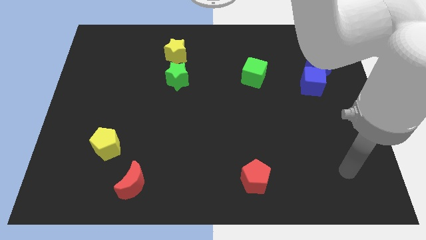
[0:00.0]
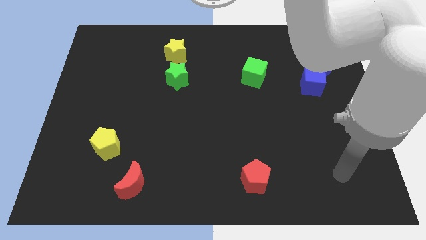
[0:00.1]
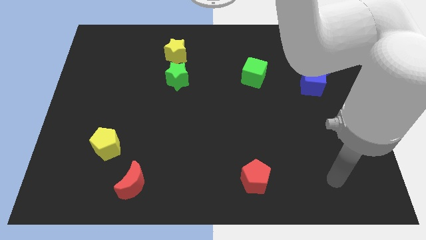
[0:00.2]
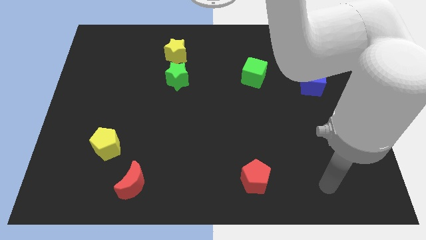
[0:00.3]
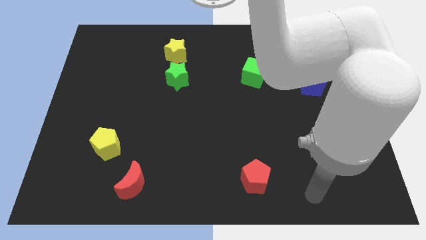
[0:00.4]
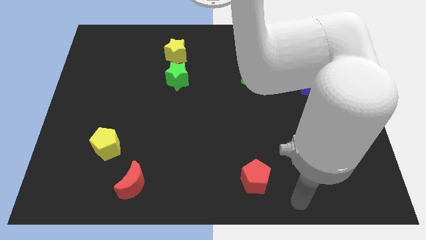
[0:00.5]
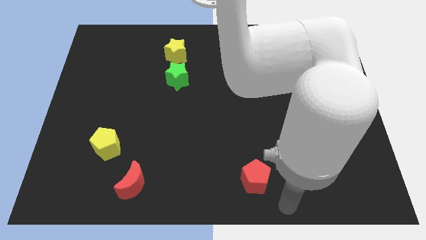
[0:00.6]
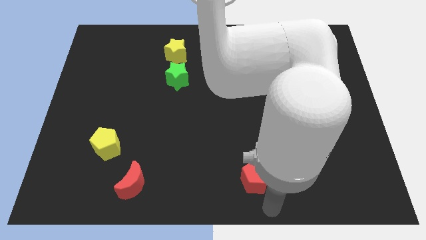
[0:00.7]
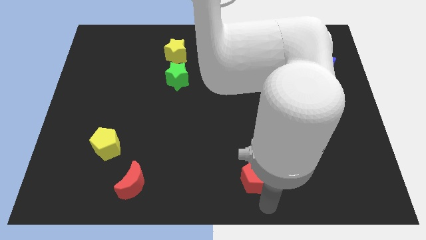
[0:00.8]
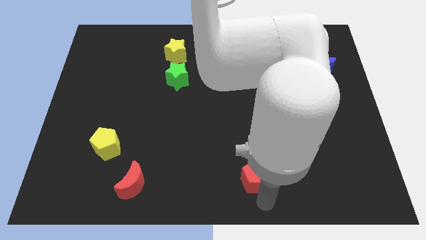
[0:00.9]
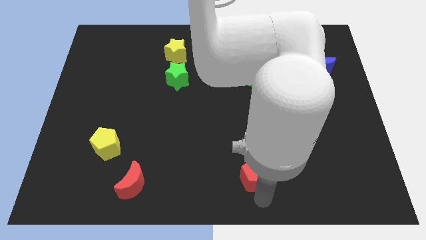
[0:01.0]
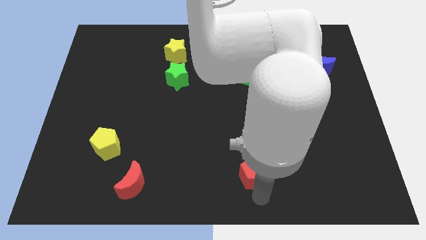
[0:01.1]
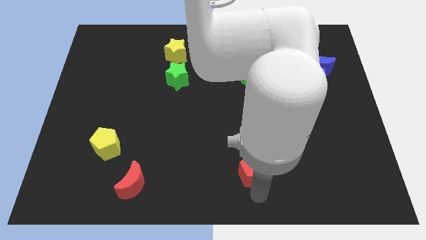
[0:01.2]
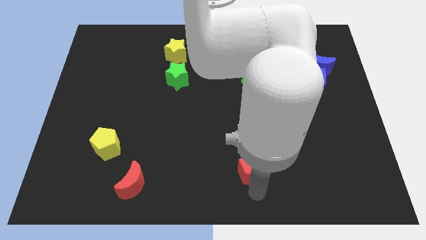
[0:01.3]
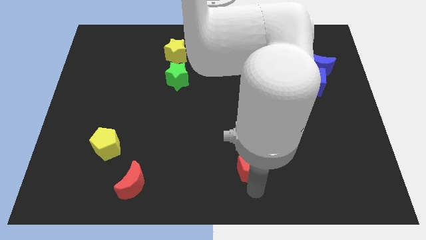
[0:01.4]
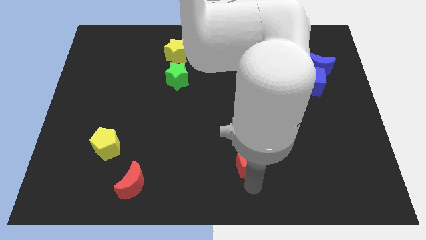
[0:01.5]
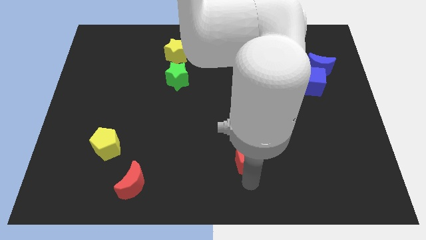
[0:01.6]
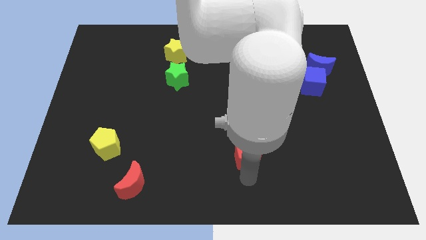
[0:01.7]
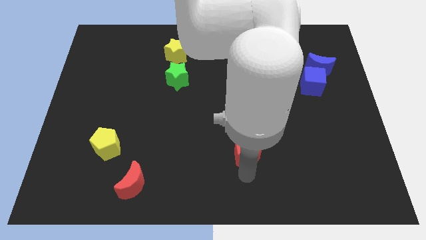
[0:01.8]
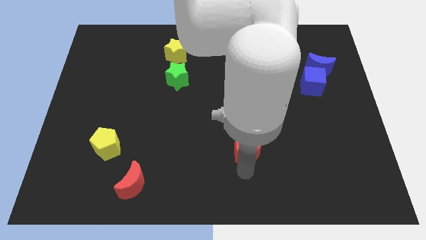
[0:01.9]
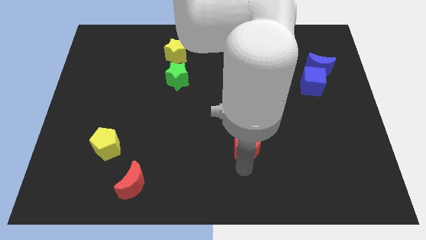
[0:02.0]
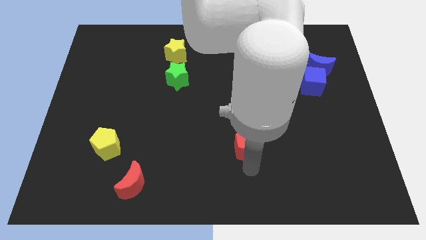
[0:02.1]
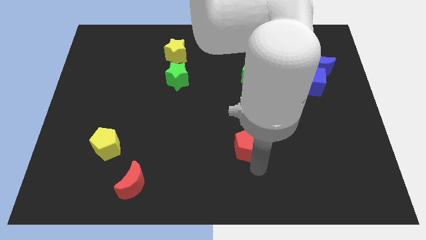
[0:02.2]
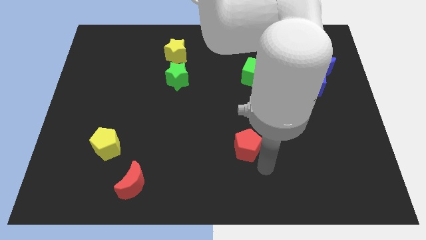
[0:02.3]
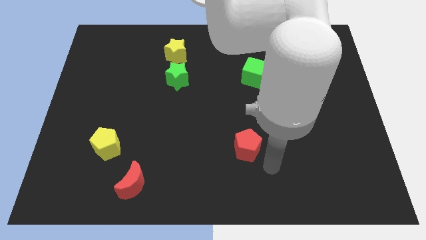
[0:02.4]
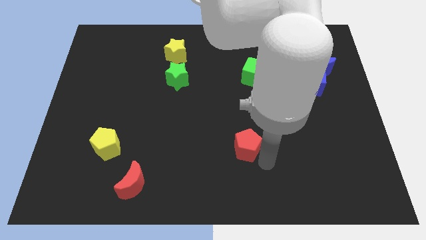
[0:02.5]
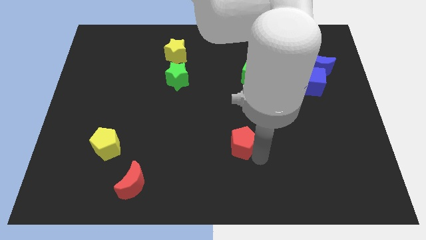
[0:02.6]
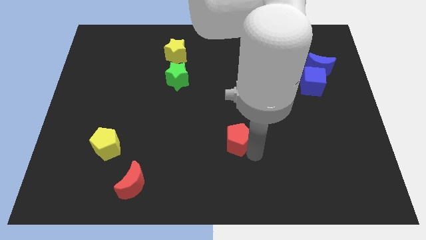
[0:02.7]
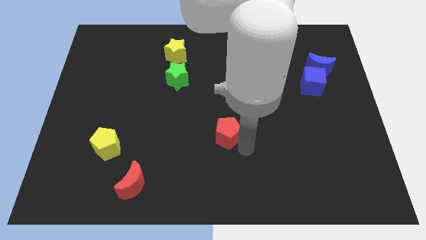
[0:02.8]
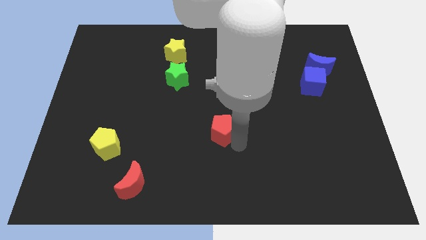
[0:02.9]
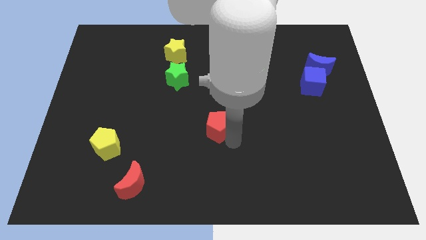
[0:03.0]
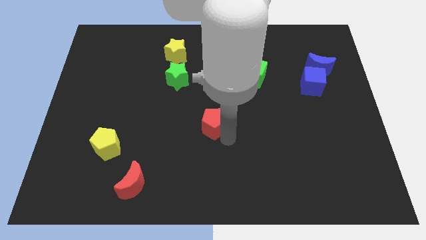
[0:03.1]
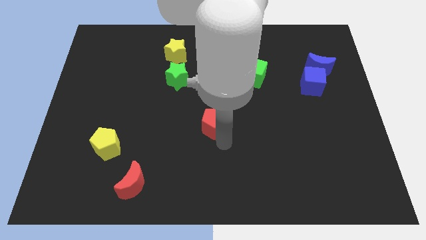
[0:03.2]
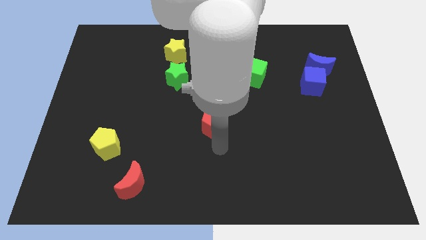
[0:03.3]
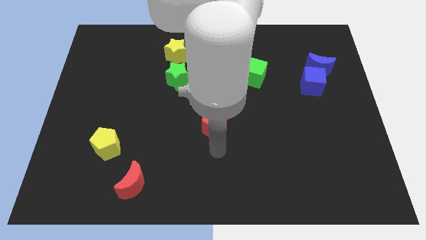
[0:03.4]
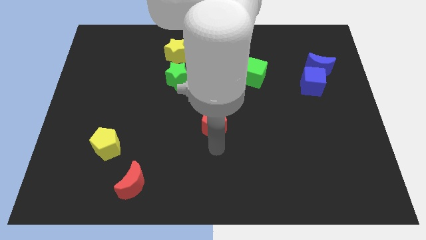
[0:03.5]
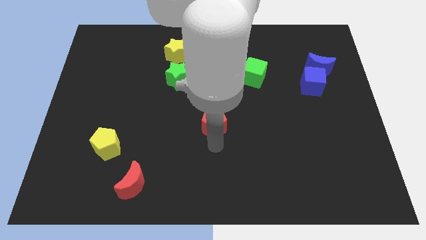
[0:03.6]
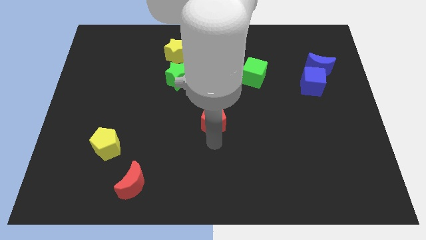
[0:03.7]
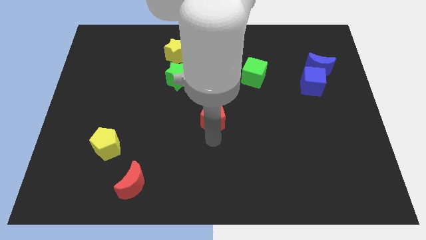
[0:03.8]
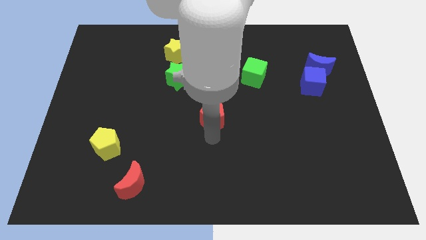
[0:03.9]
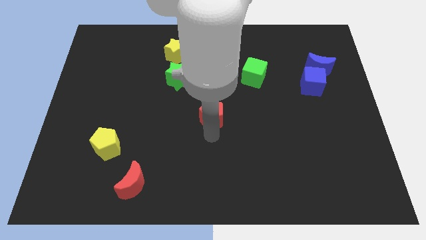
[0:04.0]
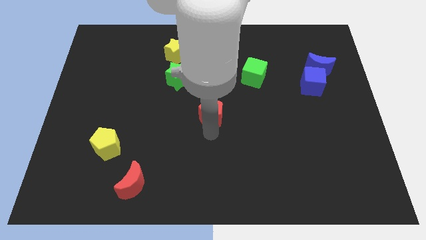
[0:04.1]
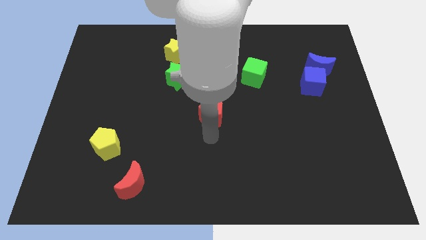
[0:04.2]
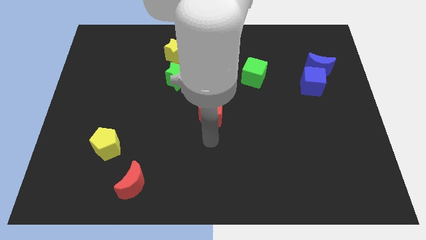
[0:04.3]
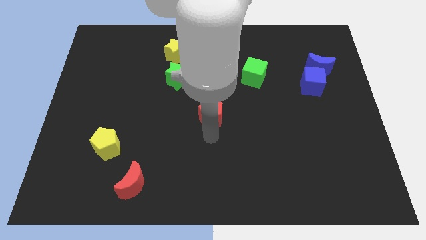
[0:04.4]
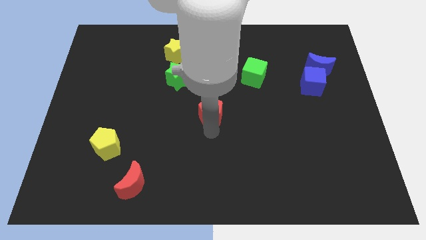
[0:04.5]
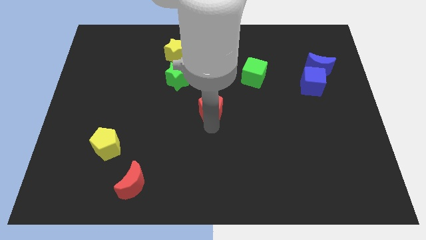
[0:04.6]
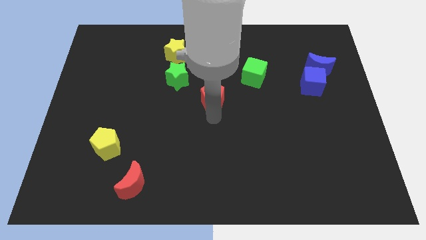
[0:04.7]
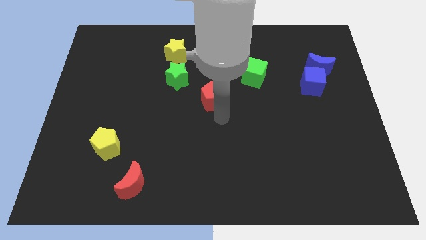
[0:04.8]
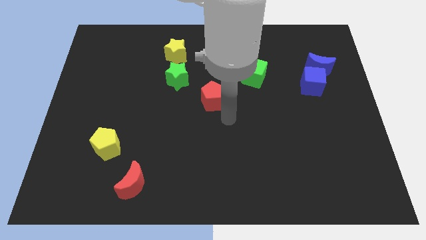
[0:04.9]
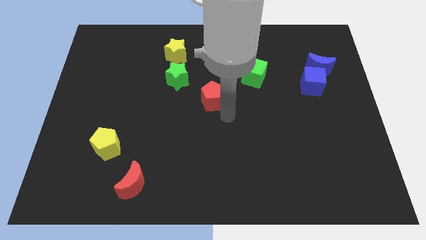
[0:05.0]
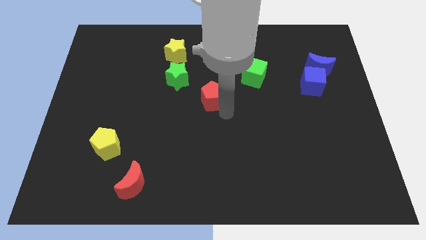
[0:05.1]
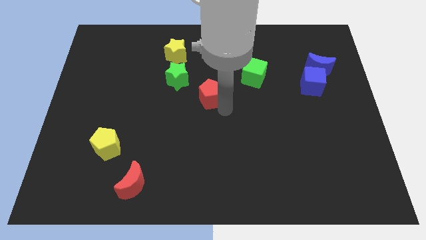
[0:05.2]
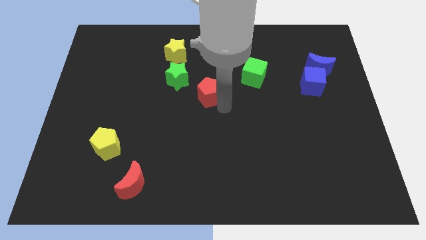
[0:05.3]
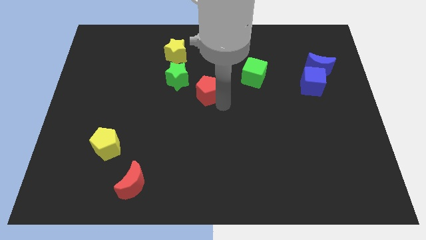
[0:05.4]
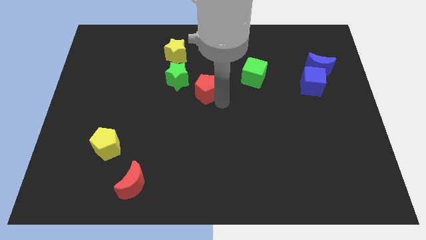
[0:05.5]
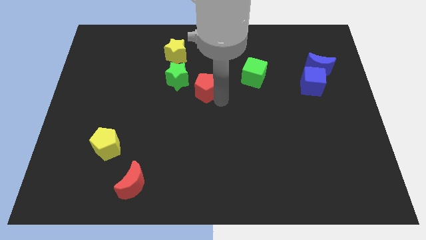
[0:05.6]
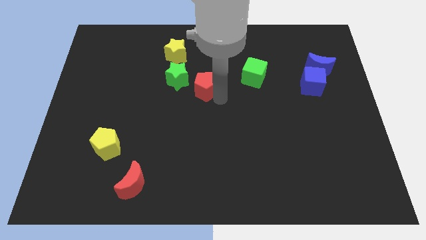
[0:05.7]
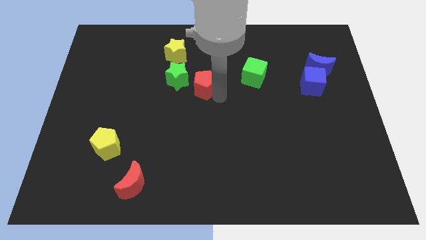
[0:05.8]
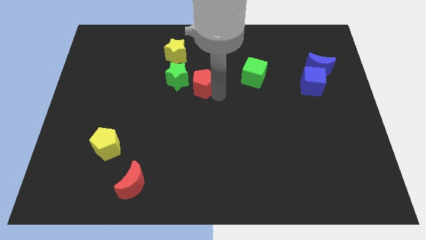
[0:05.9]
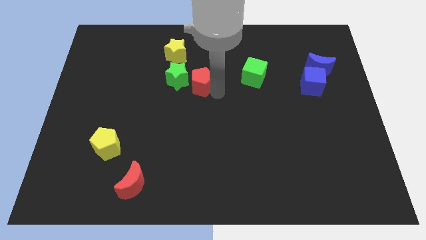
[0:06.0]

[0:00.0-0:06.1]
push the red pentagon to the bottom right of the yellow star

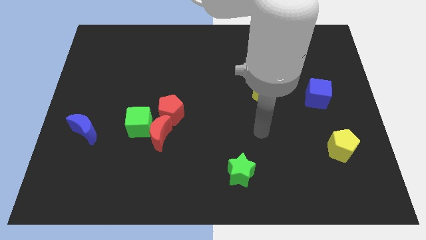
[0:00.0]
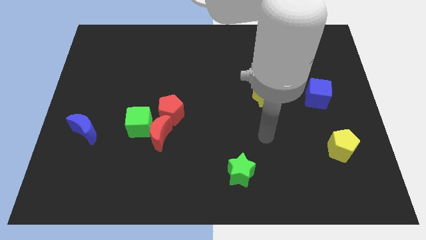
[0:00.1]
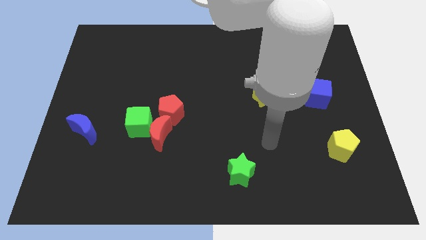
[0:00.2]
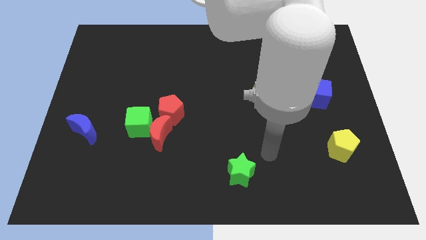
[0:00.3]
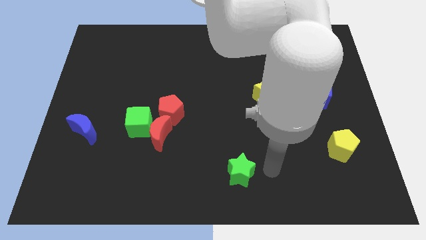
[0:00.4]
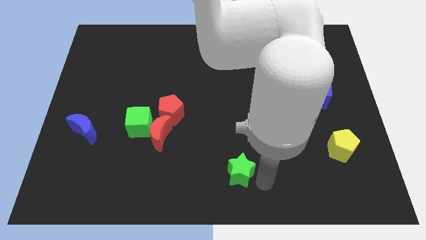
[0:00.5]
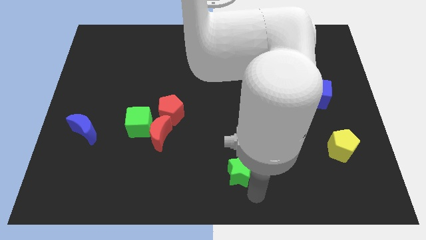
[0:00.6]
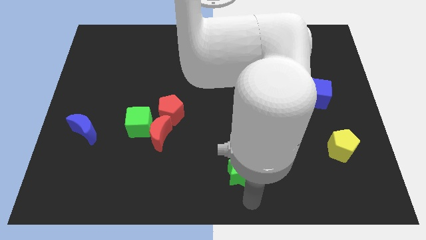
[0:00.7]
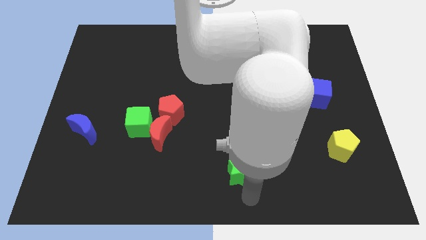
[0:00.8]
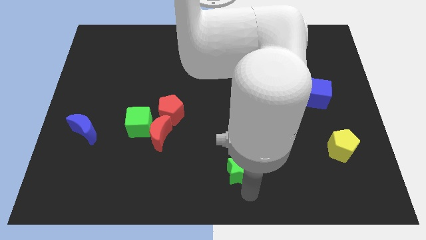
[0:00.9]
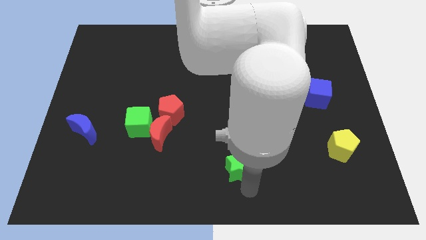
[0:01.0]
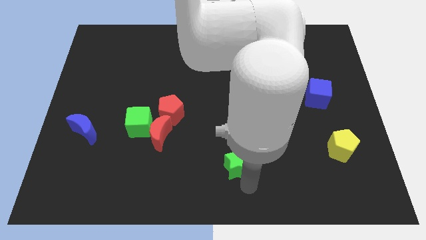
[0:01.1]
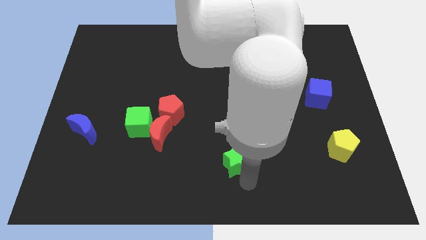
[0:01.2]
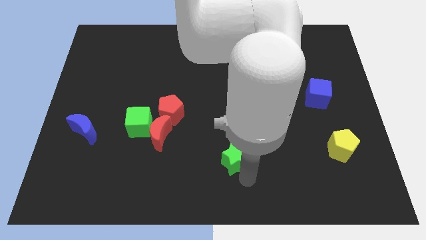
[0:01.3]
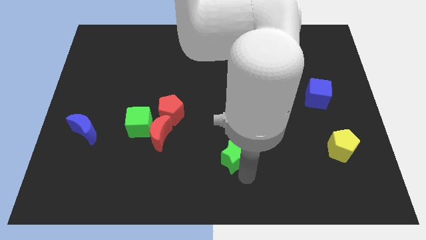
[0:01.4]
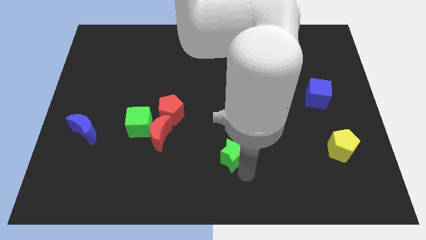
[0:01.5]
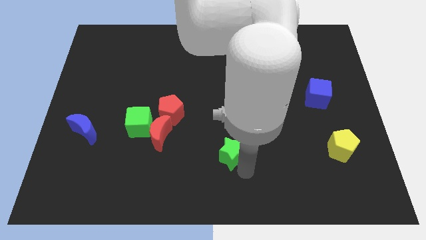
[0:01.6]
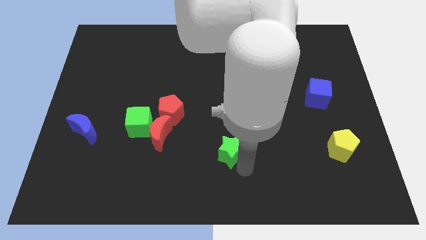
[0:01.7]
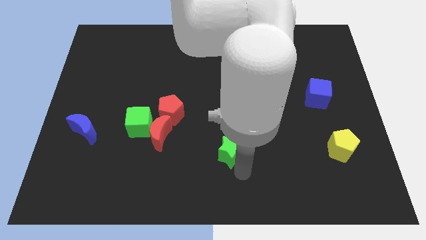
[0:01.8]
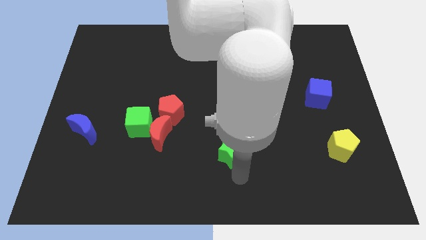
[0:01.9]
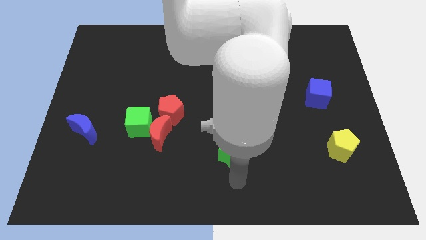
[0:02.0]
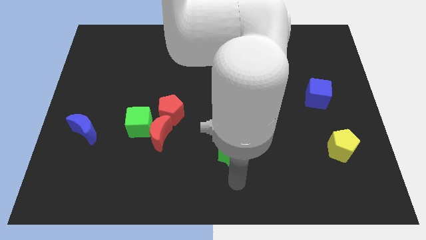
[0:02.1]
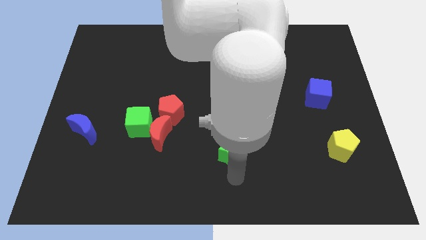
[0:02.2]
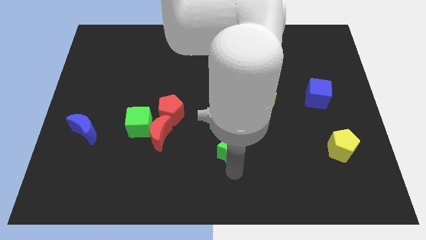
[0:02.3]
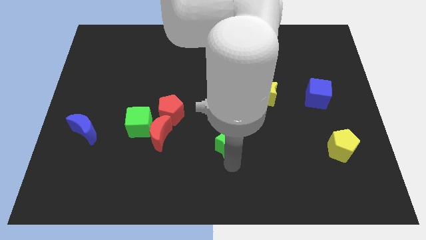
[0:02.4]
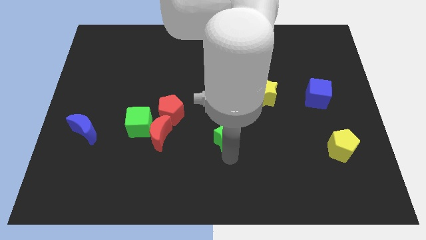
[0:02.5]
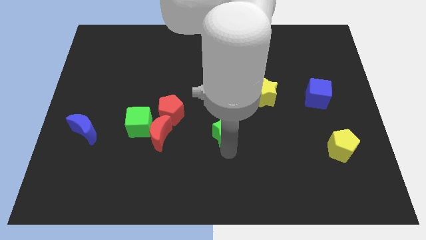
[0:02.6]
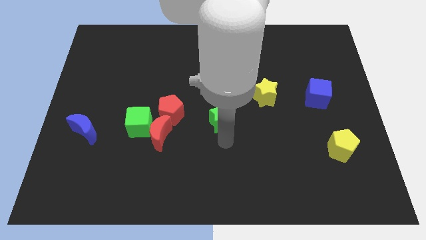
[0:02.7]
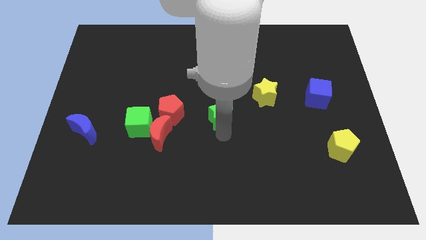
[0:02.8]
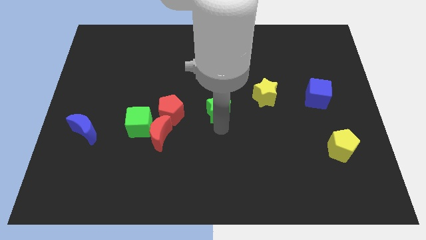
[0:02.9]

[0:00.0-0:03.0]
move the green star to the left side of the yellow star
